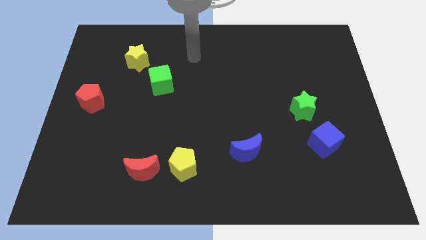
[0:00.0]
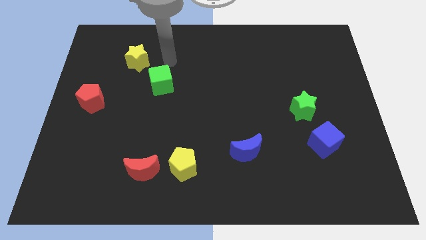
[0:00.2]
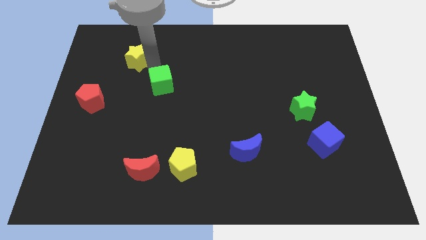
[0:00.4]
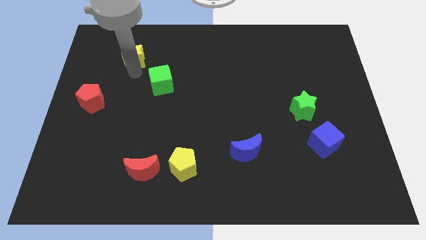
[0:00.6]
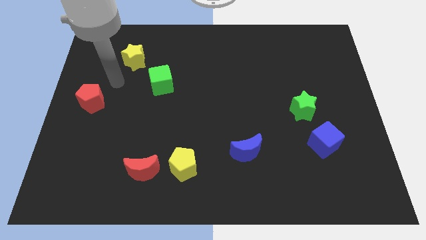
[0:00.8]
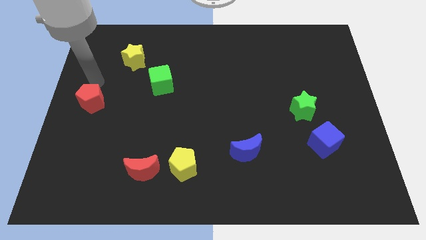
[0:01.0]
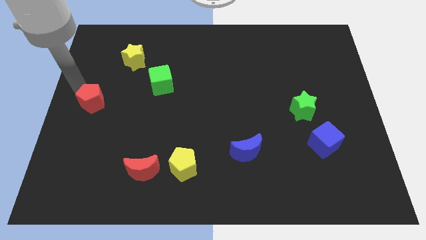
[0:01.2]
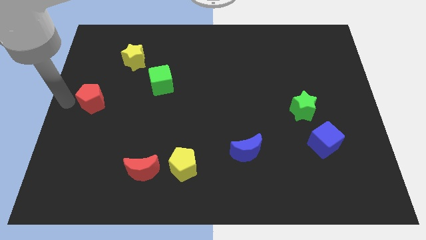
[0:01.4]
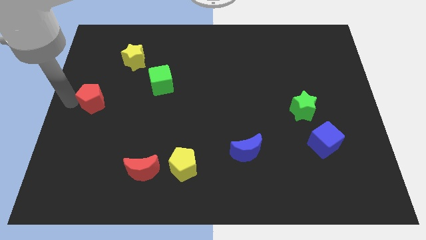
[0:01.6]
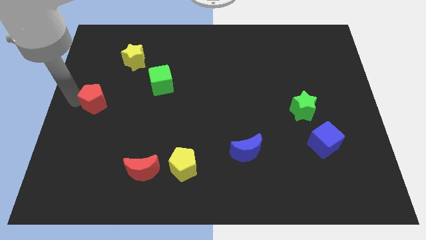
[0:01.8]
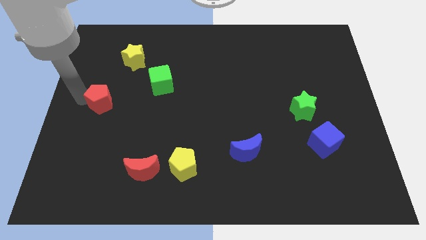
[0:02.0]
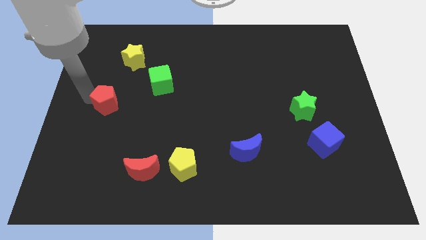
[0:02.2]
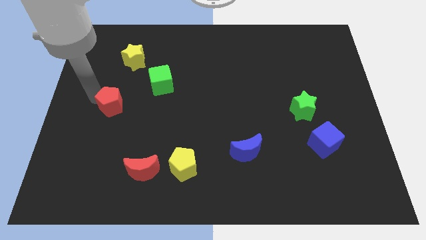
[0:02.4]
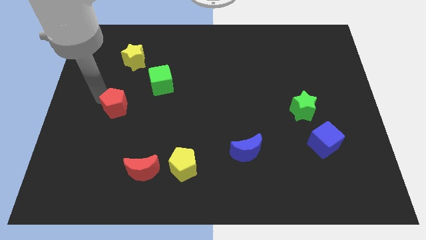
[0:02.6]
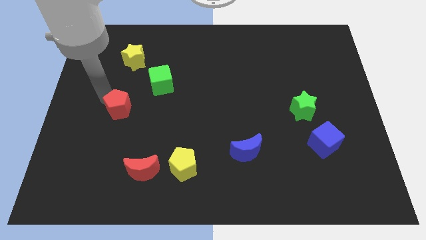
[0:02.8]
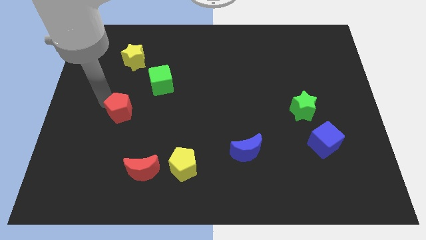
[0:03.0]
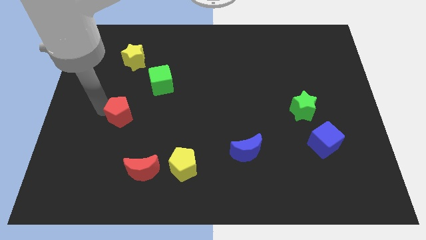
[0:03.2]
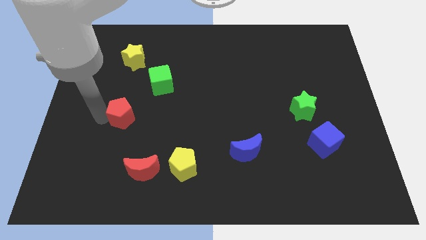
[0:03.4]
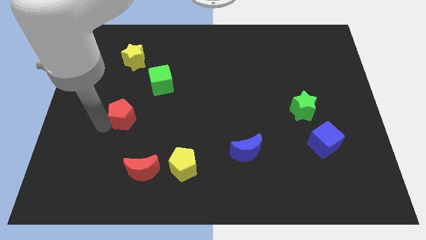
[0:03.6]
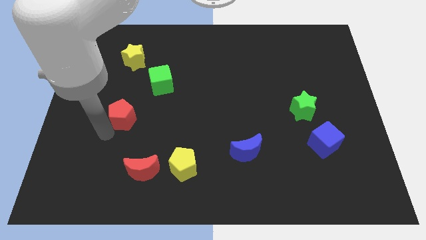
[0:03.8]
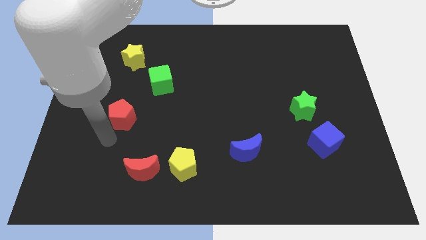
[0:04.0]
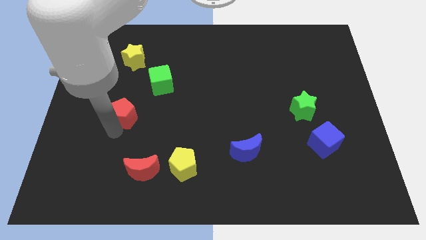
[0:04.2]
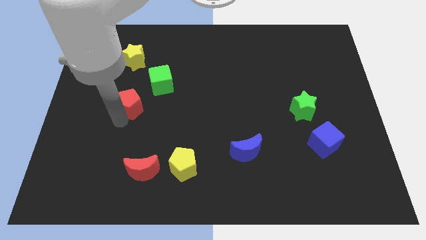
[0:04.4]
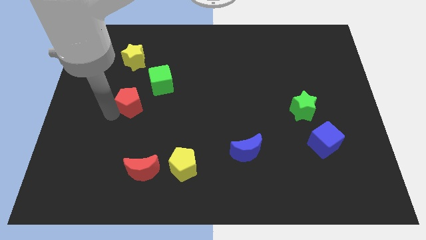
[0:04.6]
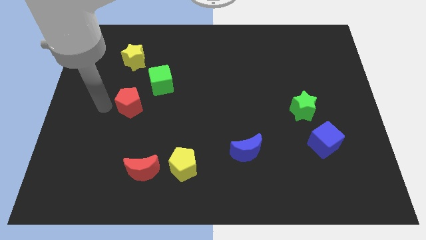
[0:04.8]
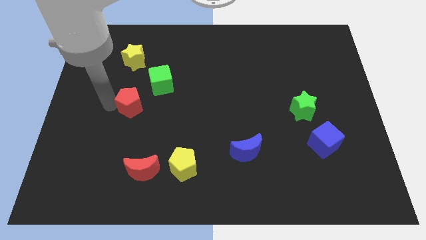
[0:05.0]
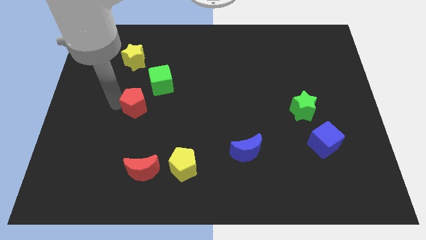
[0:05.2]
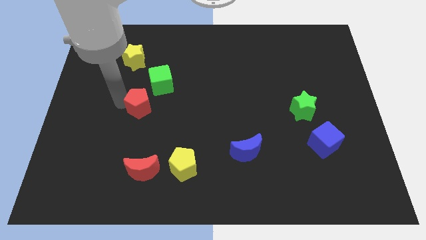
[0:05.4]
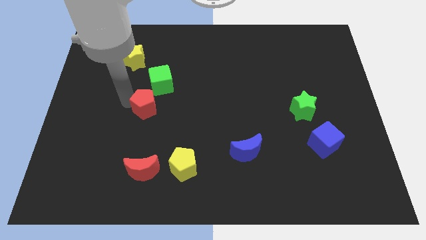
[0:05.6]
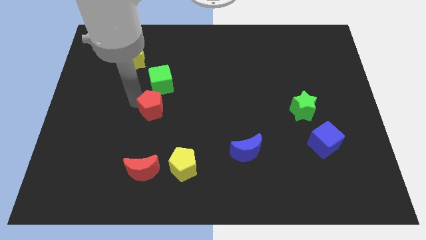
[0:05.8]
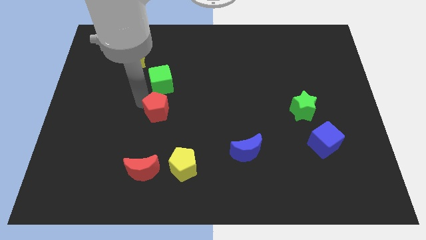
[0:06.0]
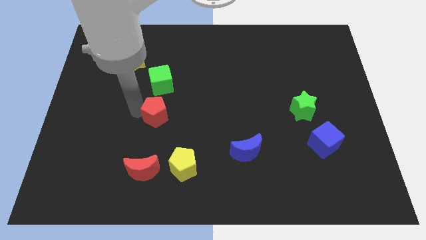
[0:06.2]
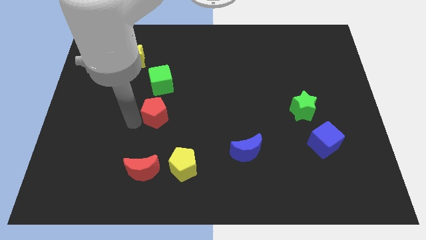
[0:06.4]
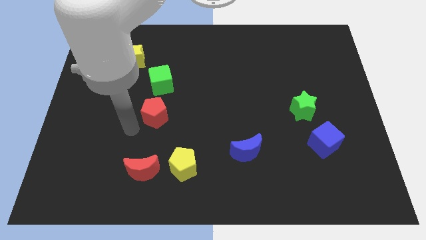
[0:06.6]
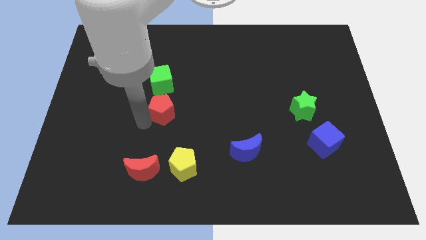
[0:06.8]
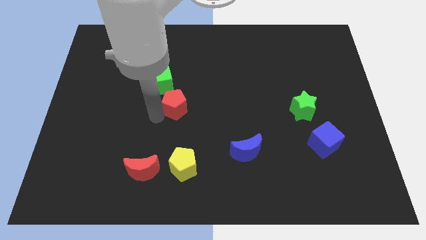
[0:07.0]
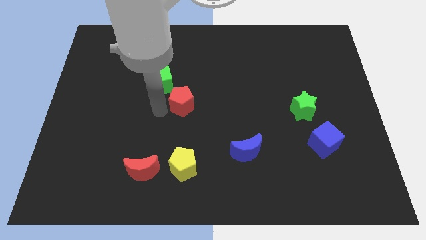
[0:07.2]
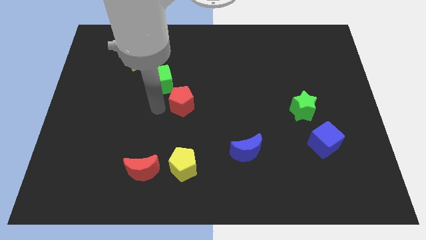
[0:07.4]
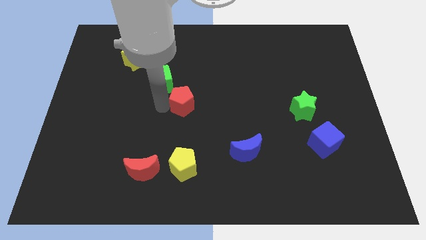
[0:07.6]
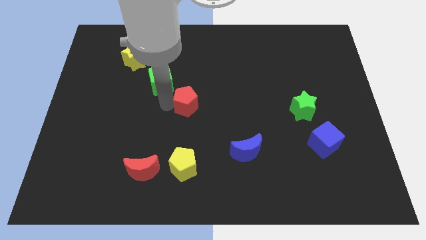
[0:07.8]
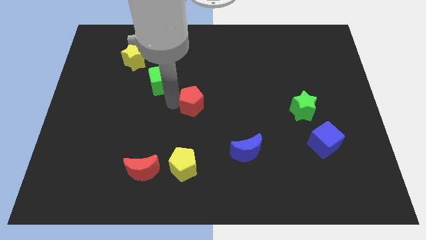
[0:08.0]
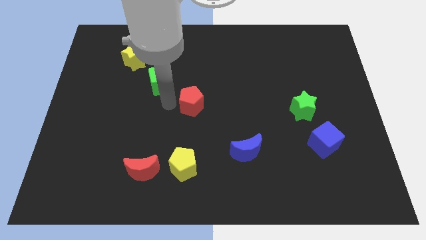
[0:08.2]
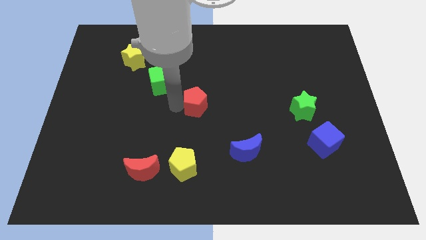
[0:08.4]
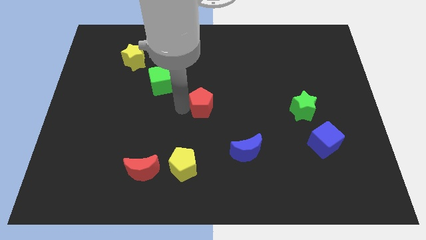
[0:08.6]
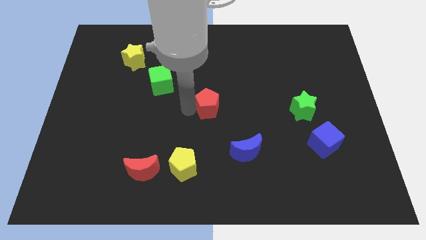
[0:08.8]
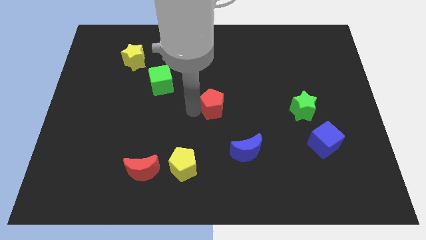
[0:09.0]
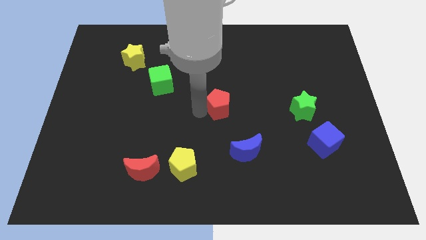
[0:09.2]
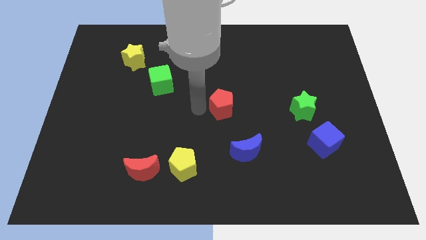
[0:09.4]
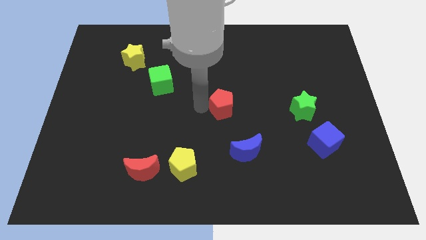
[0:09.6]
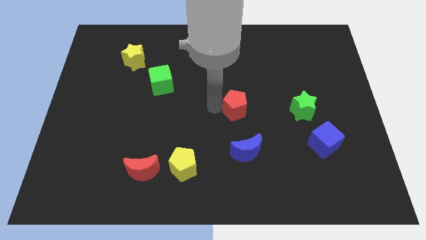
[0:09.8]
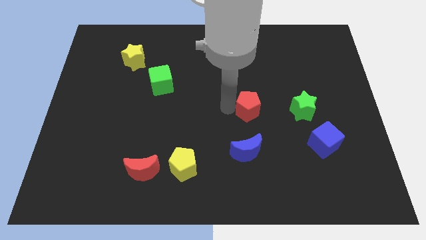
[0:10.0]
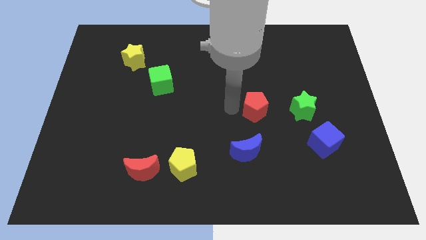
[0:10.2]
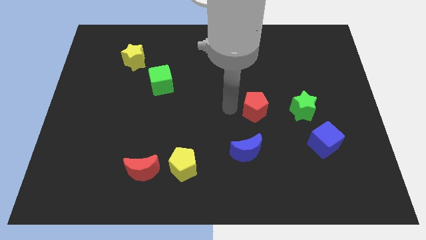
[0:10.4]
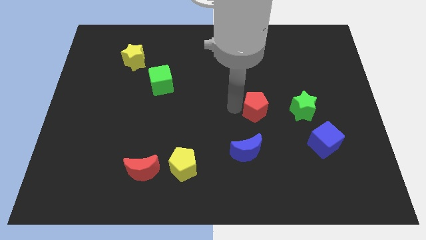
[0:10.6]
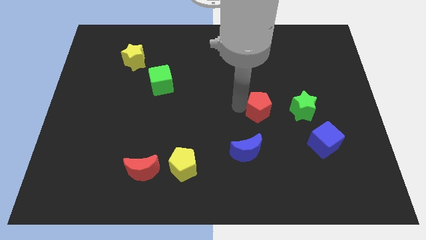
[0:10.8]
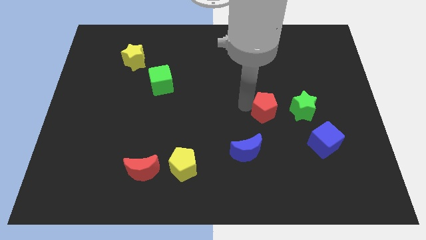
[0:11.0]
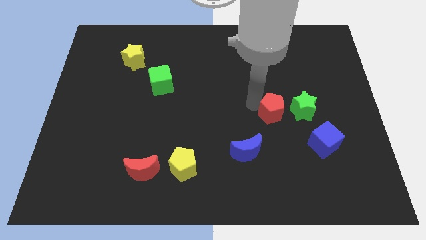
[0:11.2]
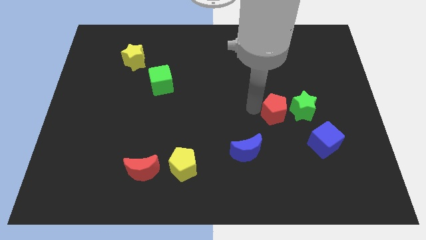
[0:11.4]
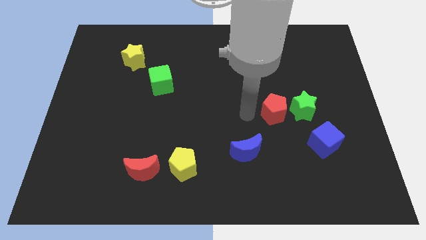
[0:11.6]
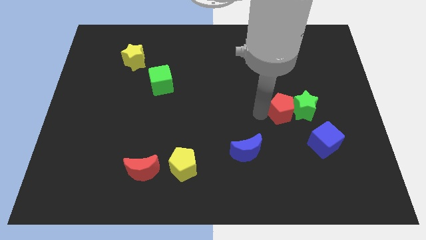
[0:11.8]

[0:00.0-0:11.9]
put the red pentagon close to the green star

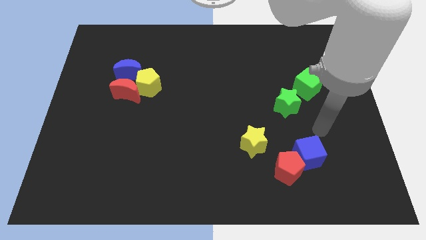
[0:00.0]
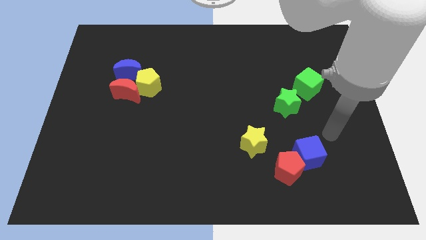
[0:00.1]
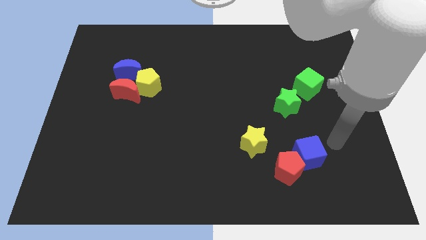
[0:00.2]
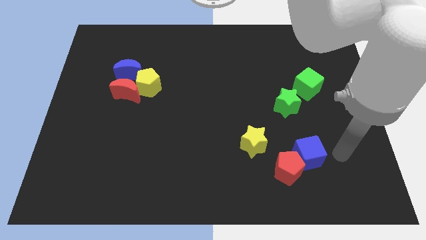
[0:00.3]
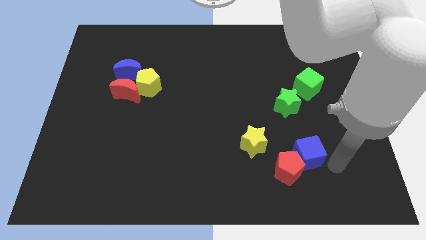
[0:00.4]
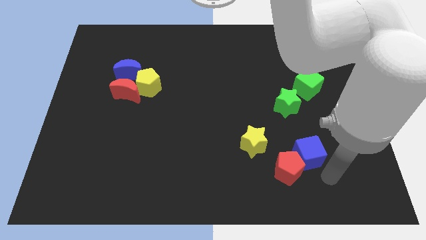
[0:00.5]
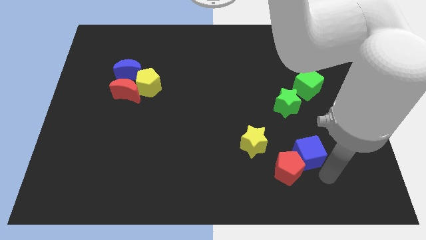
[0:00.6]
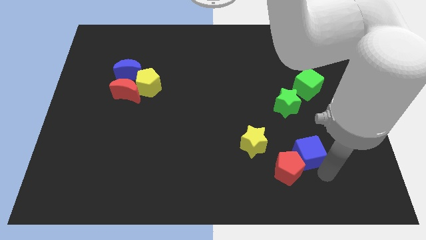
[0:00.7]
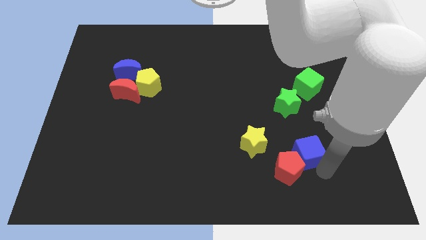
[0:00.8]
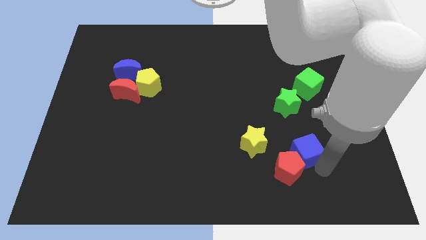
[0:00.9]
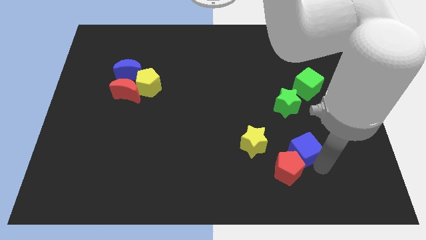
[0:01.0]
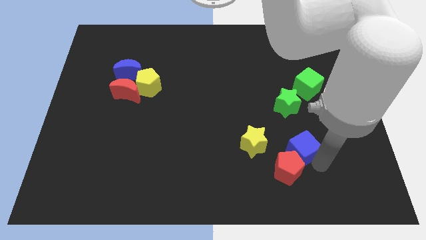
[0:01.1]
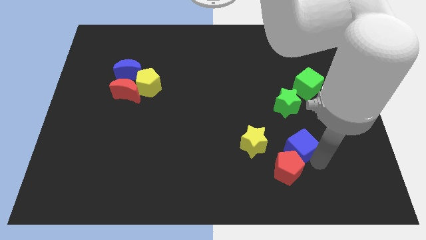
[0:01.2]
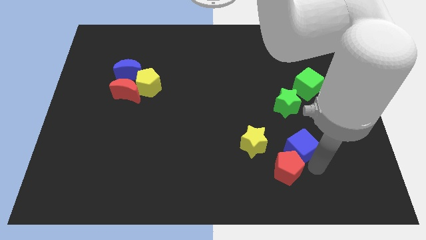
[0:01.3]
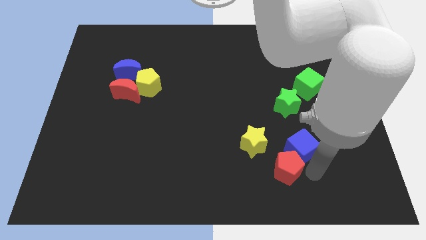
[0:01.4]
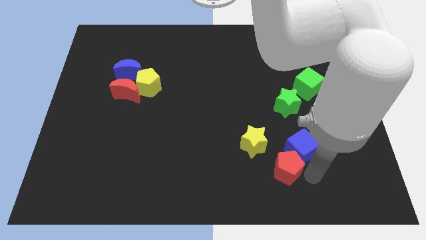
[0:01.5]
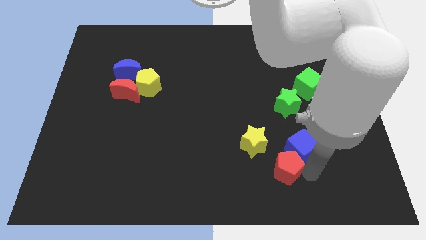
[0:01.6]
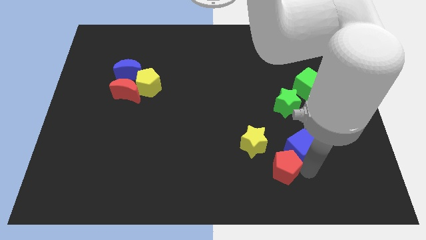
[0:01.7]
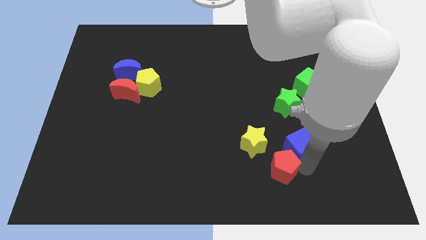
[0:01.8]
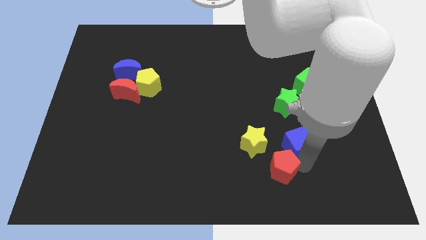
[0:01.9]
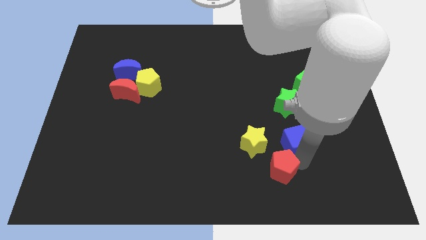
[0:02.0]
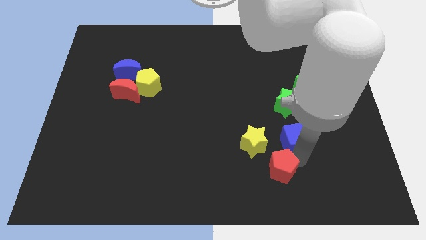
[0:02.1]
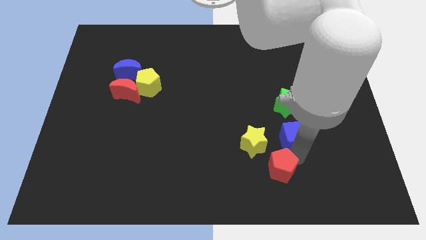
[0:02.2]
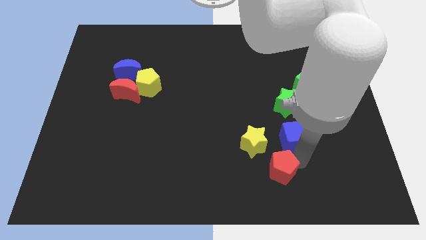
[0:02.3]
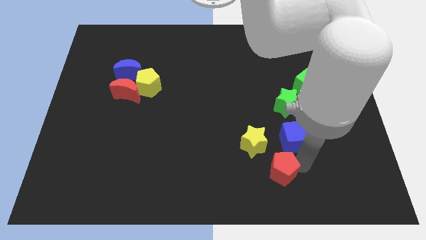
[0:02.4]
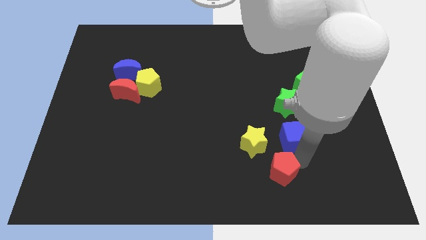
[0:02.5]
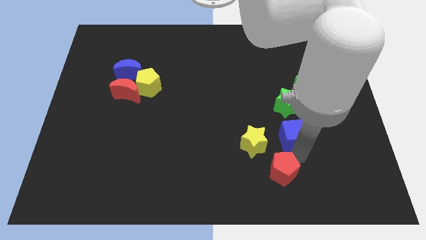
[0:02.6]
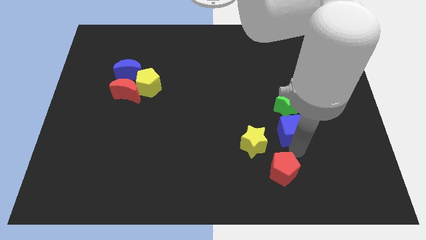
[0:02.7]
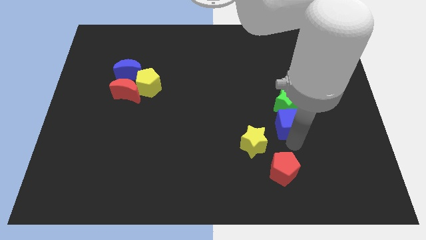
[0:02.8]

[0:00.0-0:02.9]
put the blue cube next to the green star
